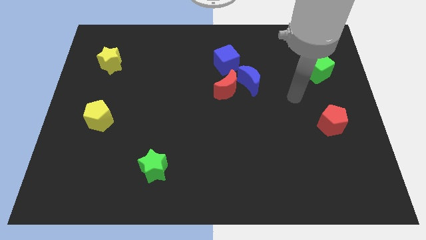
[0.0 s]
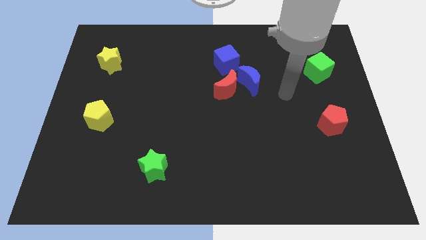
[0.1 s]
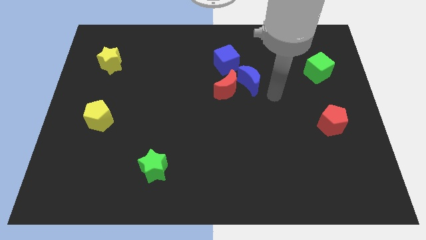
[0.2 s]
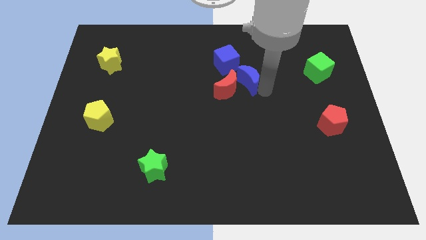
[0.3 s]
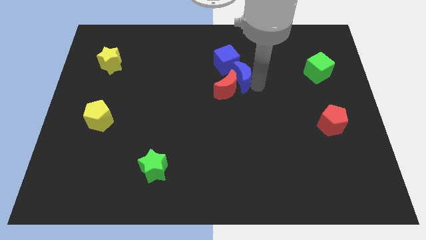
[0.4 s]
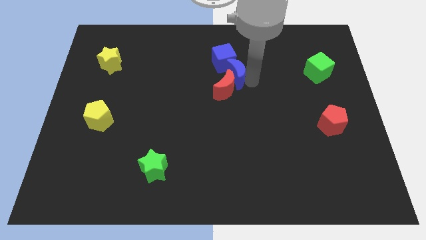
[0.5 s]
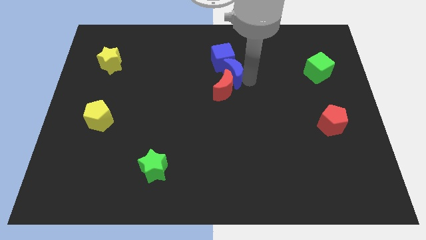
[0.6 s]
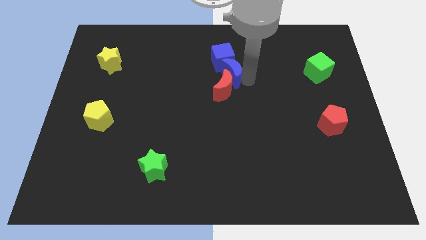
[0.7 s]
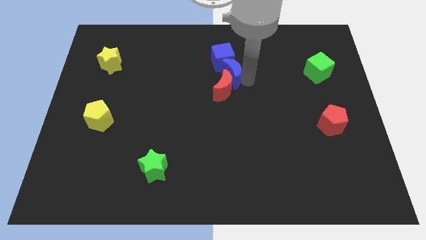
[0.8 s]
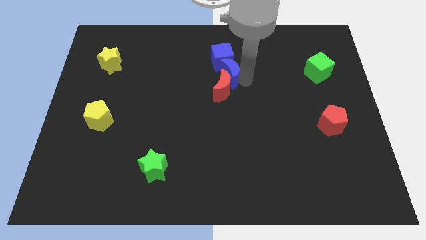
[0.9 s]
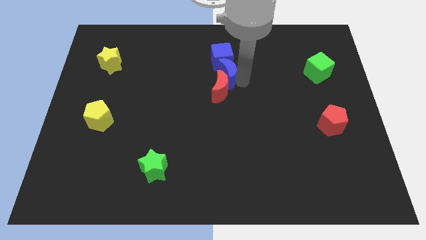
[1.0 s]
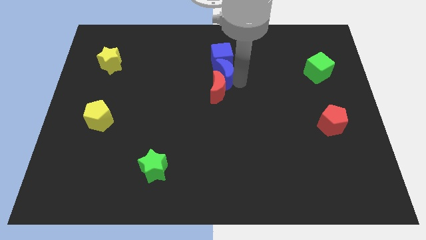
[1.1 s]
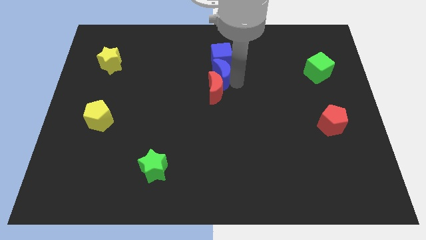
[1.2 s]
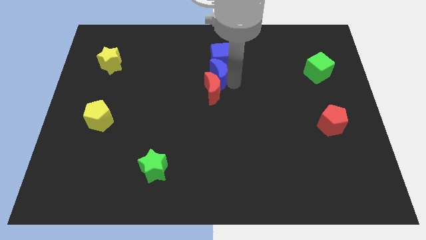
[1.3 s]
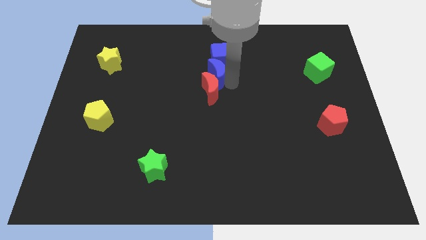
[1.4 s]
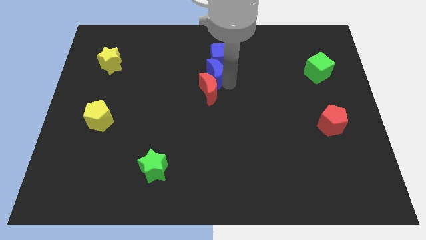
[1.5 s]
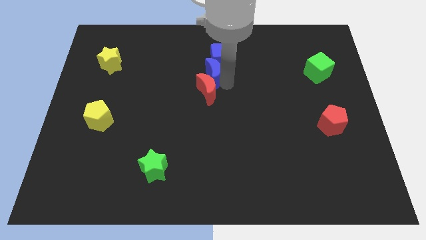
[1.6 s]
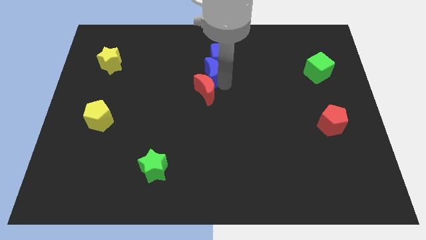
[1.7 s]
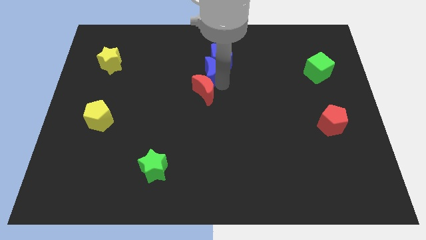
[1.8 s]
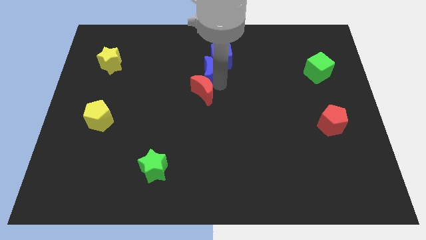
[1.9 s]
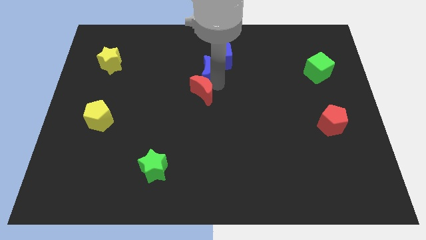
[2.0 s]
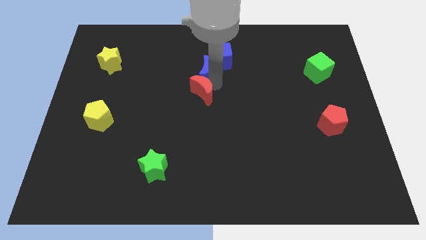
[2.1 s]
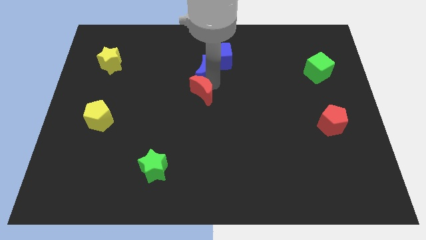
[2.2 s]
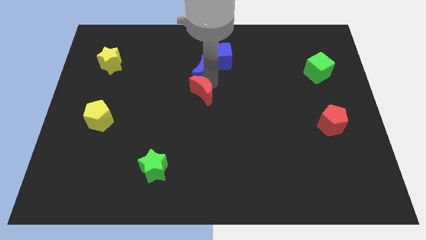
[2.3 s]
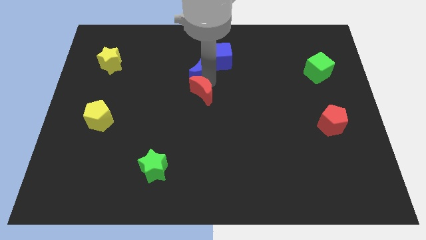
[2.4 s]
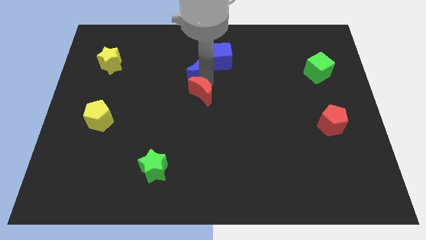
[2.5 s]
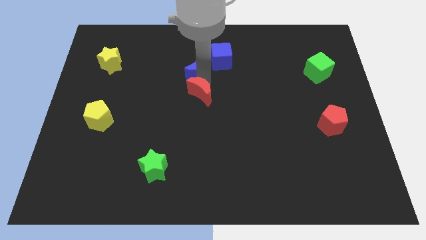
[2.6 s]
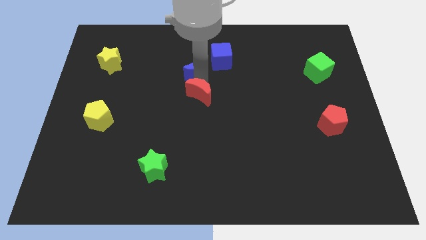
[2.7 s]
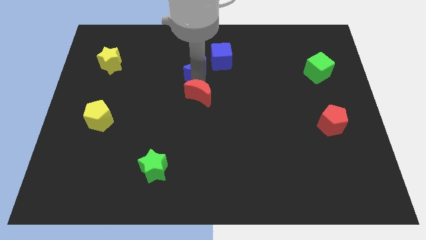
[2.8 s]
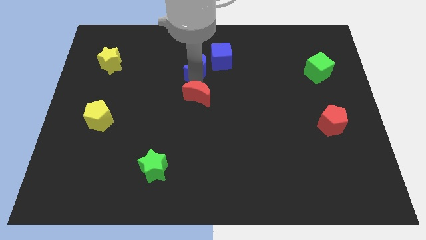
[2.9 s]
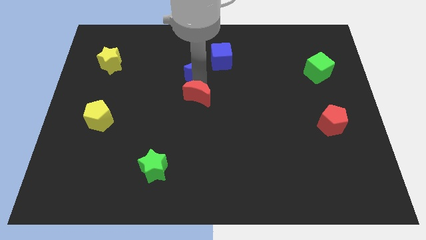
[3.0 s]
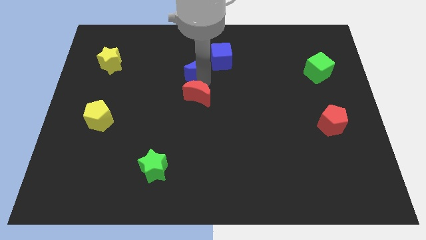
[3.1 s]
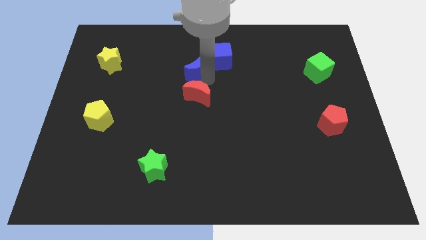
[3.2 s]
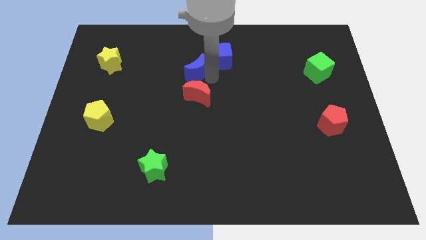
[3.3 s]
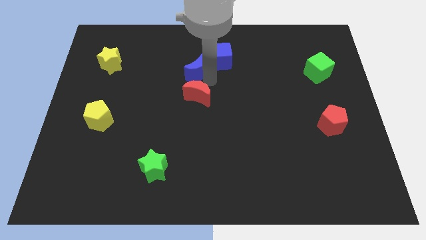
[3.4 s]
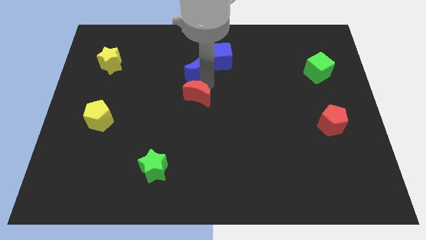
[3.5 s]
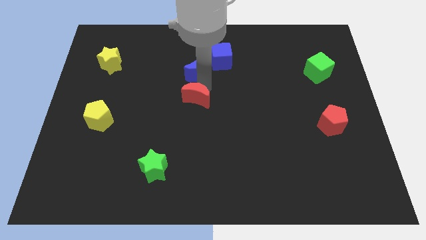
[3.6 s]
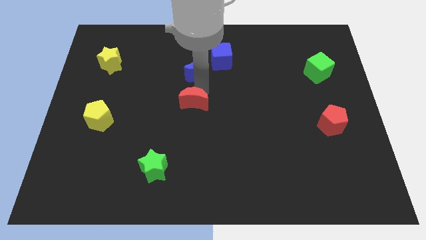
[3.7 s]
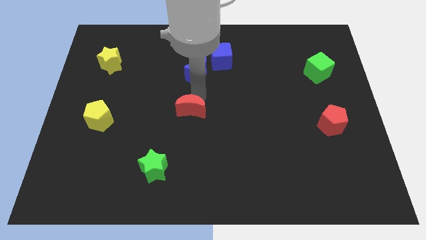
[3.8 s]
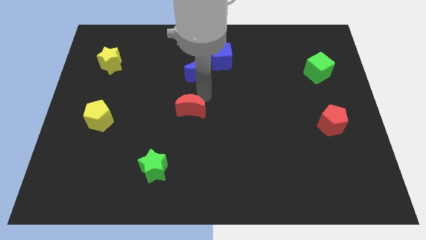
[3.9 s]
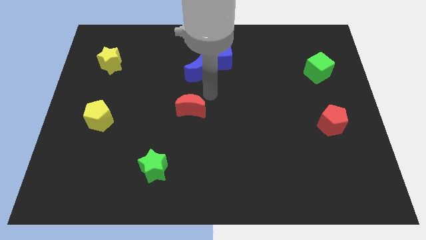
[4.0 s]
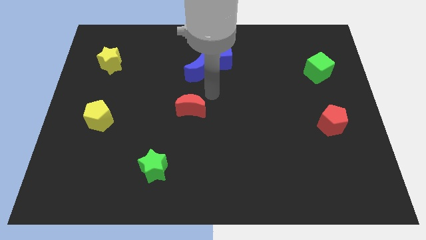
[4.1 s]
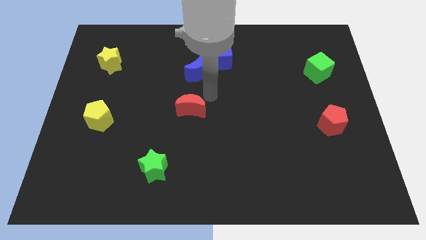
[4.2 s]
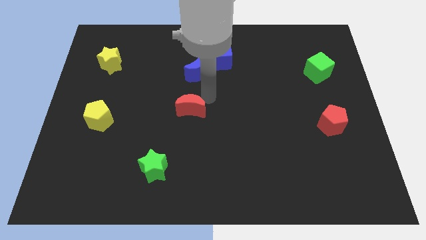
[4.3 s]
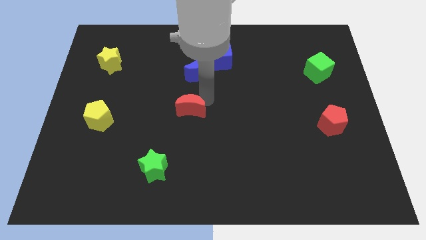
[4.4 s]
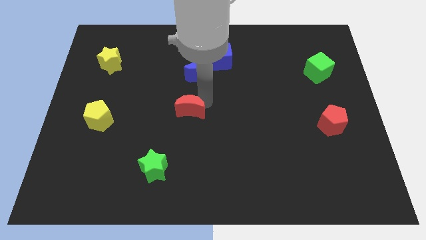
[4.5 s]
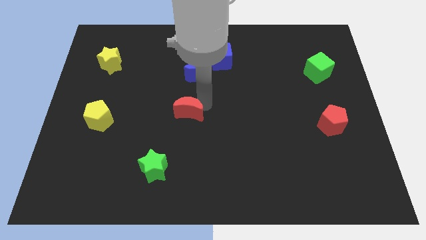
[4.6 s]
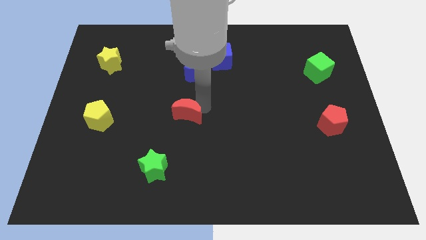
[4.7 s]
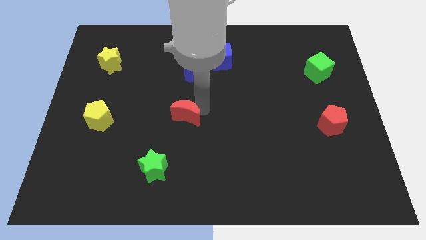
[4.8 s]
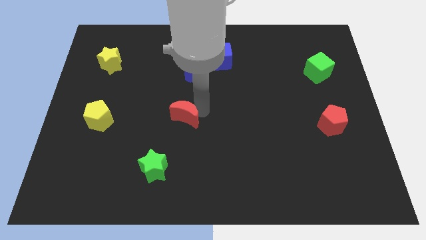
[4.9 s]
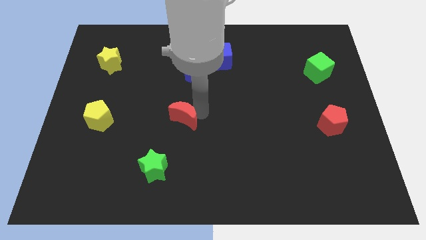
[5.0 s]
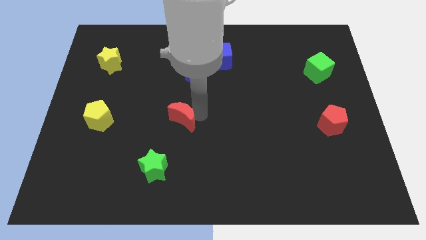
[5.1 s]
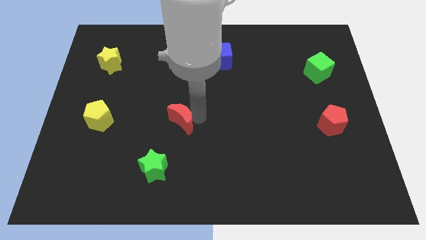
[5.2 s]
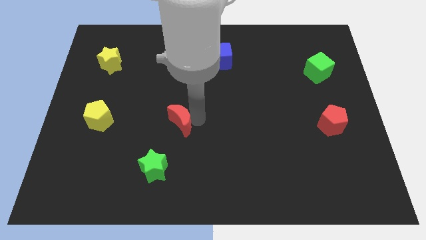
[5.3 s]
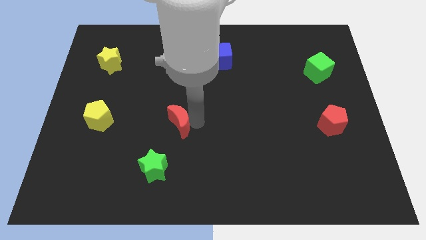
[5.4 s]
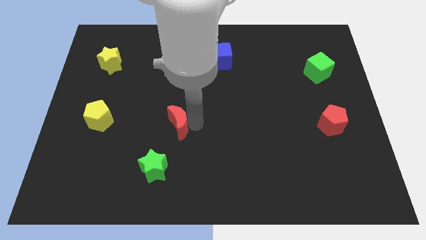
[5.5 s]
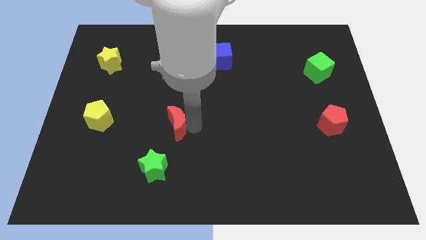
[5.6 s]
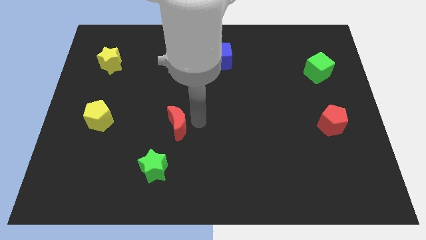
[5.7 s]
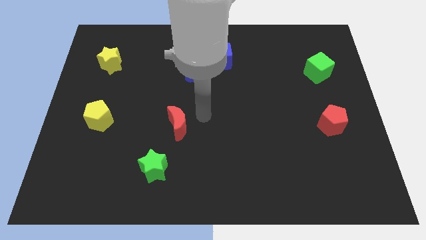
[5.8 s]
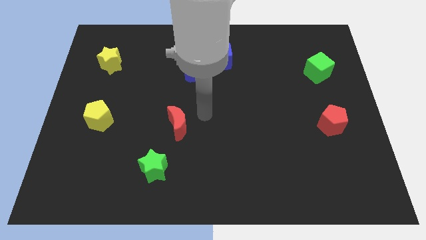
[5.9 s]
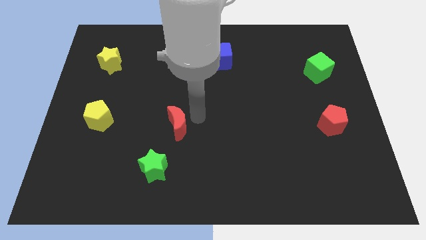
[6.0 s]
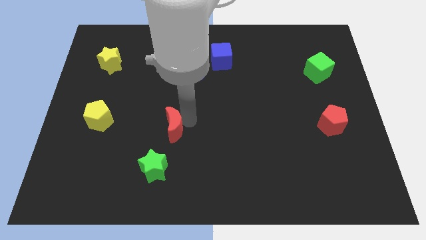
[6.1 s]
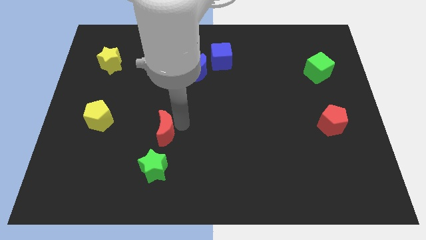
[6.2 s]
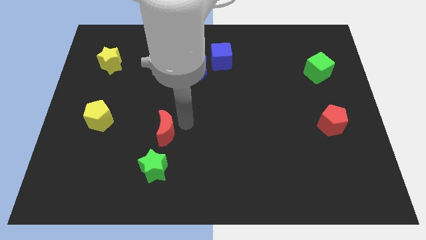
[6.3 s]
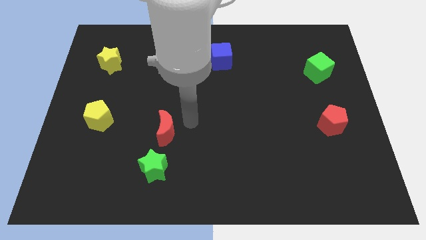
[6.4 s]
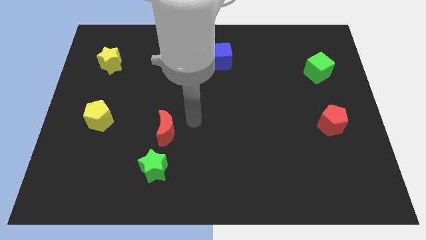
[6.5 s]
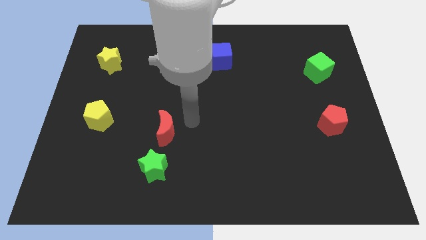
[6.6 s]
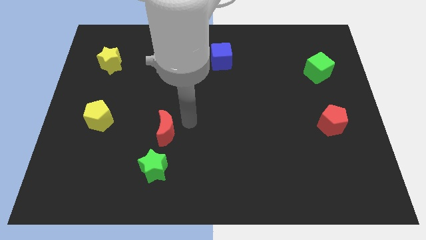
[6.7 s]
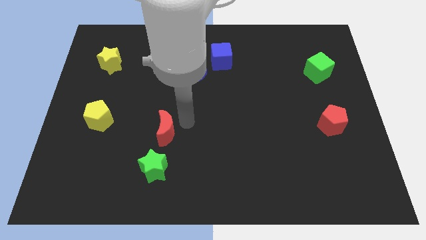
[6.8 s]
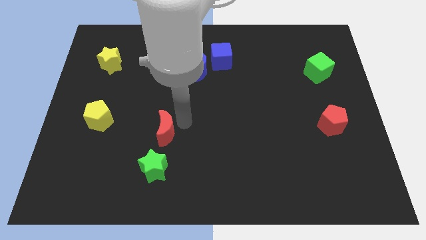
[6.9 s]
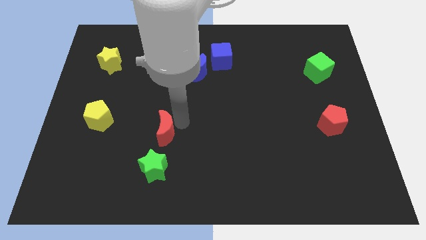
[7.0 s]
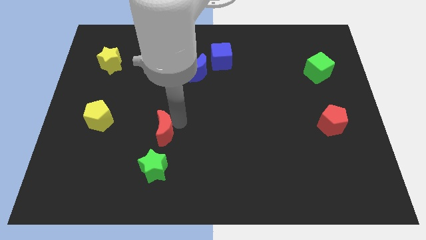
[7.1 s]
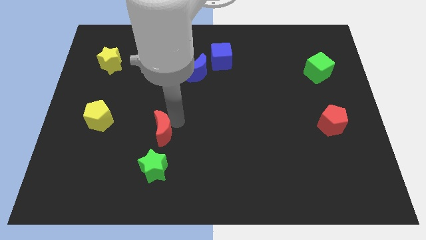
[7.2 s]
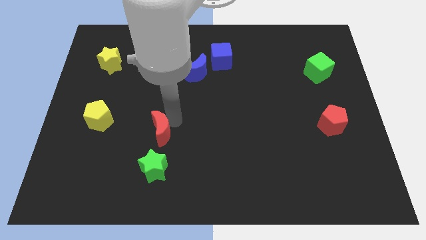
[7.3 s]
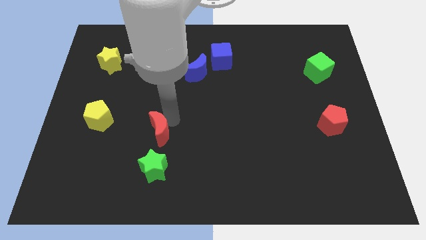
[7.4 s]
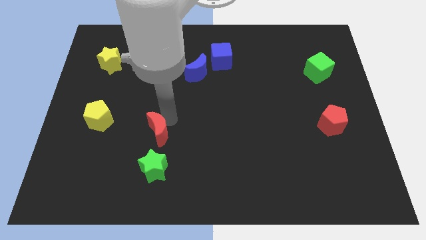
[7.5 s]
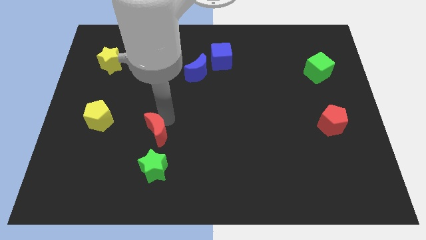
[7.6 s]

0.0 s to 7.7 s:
move the red moon down and to the left diagonally

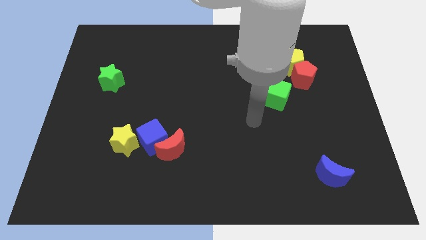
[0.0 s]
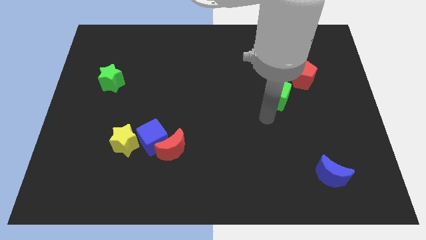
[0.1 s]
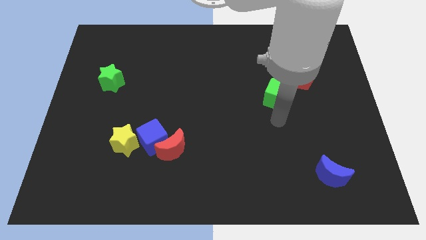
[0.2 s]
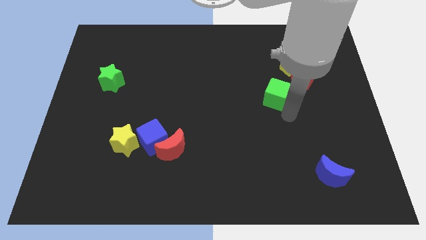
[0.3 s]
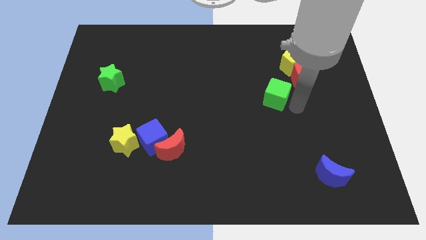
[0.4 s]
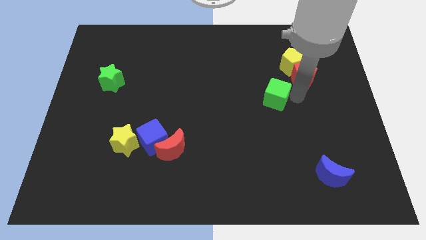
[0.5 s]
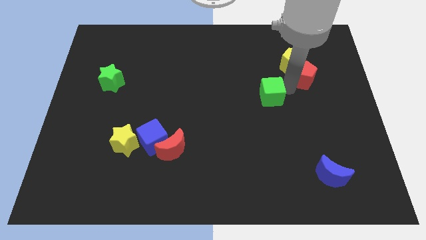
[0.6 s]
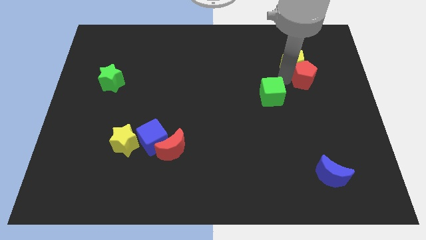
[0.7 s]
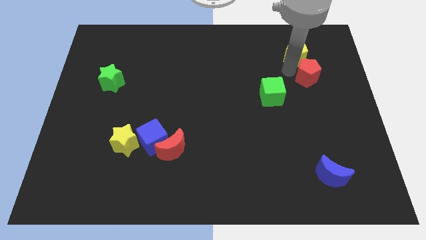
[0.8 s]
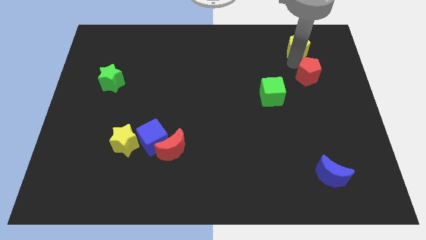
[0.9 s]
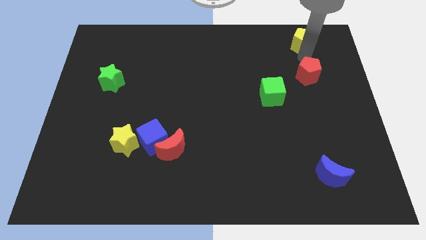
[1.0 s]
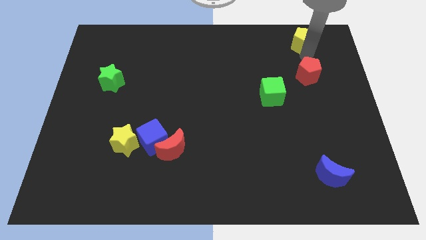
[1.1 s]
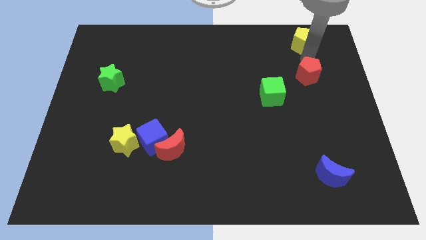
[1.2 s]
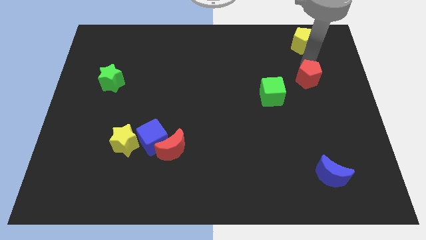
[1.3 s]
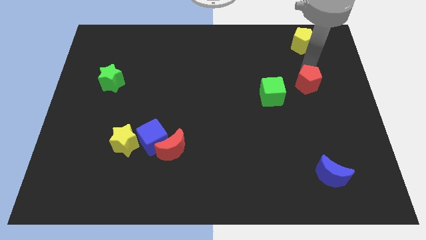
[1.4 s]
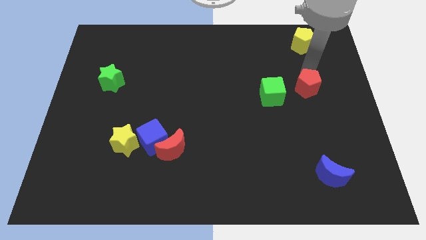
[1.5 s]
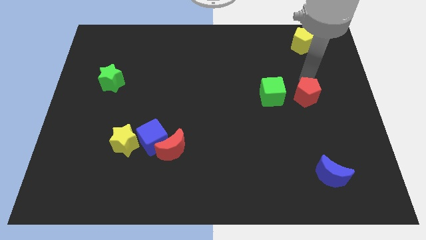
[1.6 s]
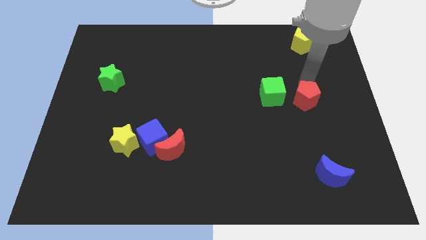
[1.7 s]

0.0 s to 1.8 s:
slightly push the red pentagon down
